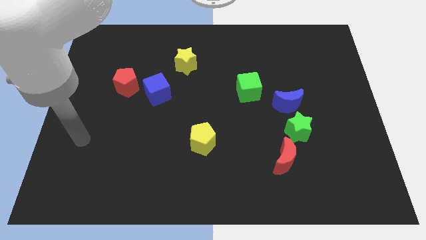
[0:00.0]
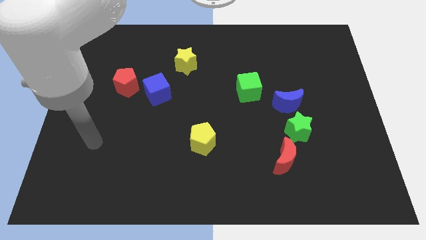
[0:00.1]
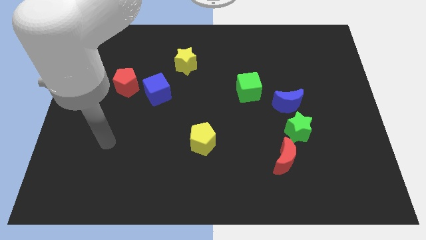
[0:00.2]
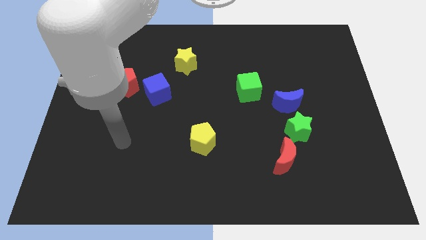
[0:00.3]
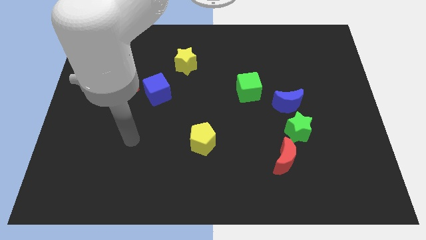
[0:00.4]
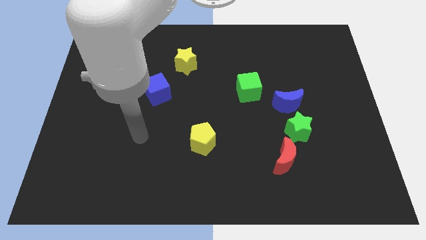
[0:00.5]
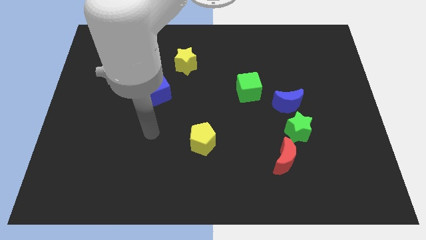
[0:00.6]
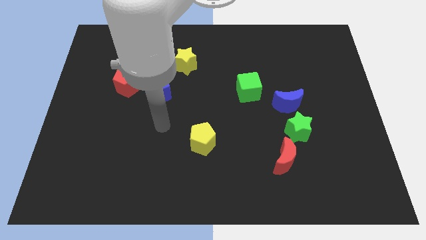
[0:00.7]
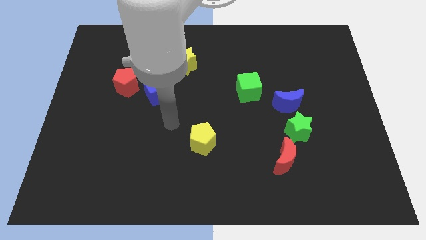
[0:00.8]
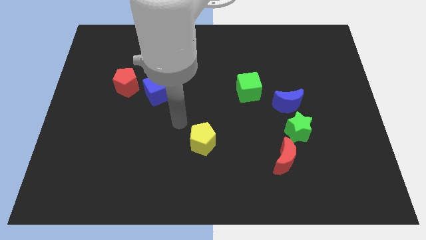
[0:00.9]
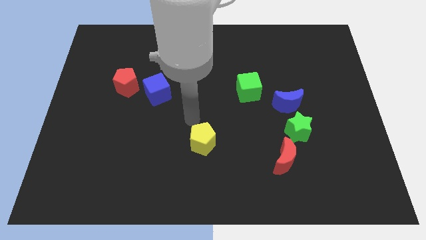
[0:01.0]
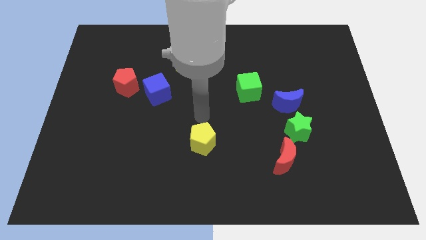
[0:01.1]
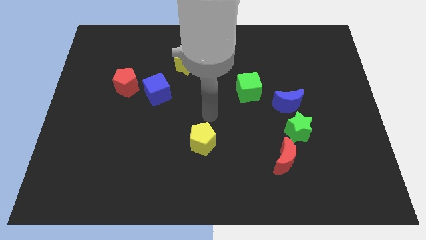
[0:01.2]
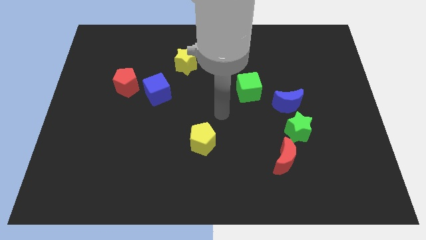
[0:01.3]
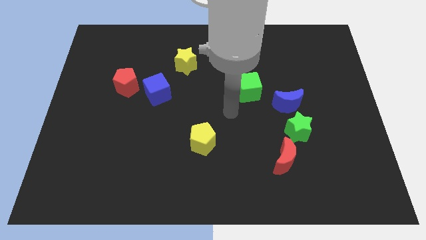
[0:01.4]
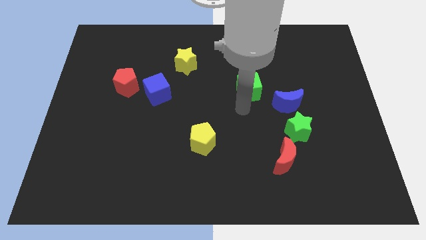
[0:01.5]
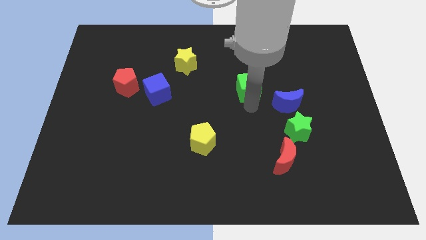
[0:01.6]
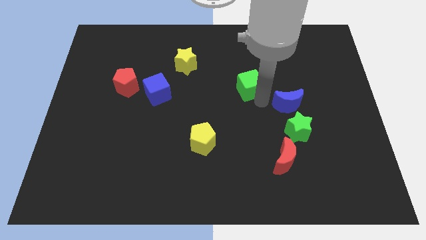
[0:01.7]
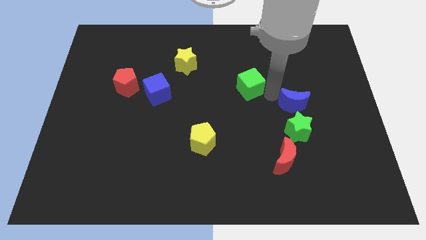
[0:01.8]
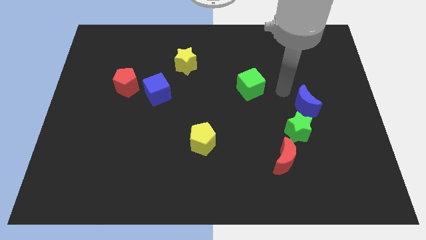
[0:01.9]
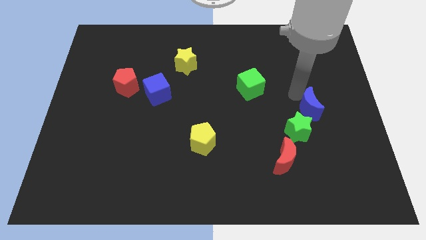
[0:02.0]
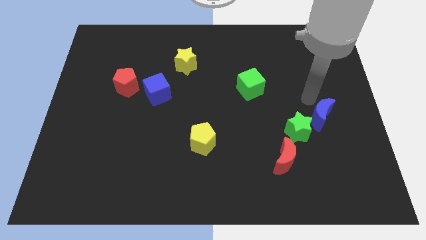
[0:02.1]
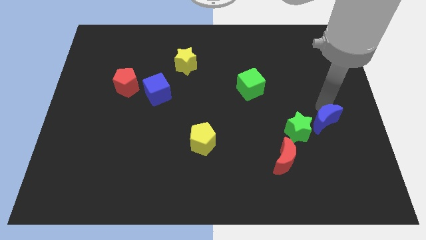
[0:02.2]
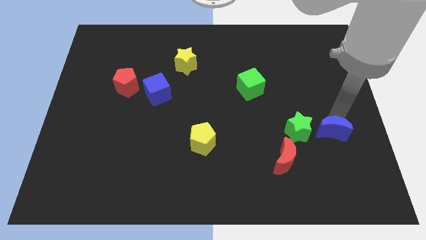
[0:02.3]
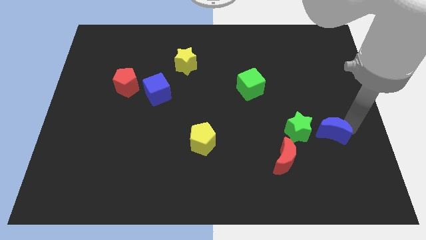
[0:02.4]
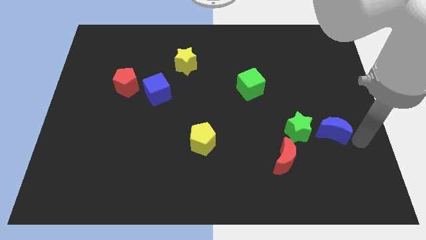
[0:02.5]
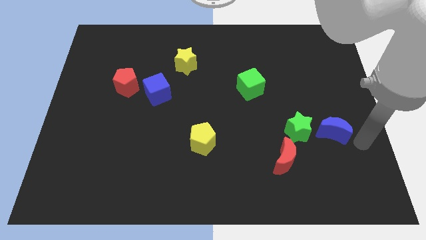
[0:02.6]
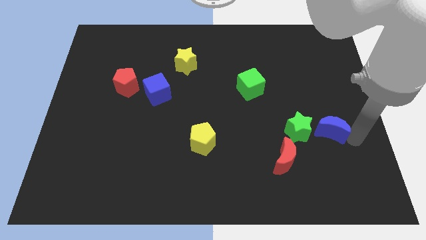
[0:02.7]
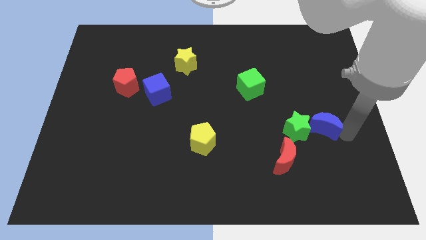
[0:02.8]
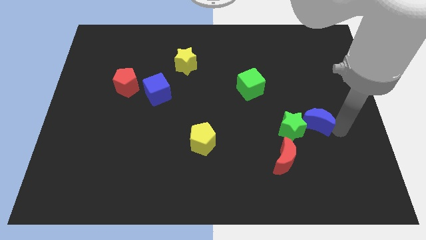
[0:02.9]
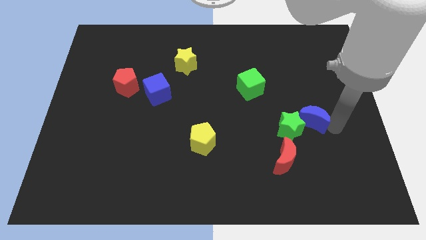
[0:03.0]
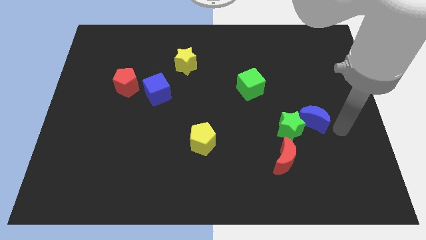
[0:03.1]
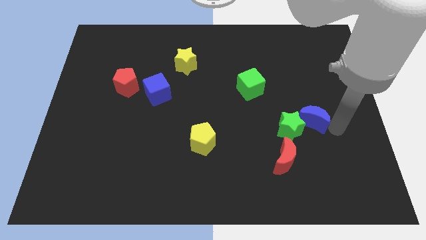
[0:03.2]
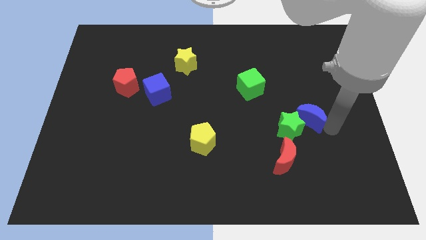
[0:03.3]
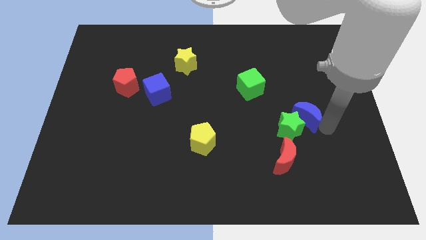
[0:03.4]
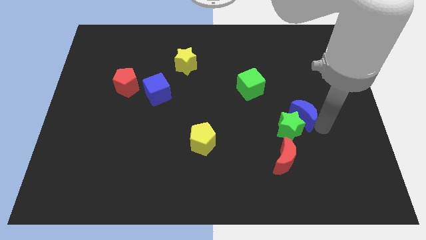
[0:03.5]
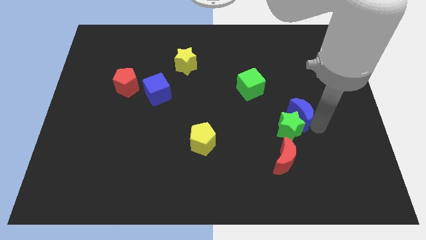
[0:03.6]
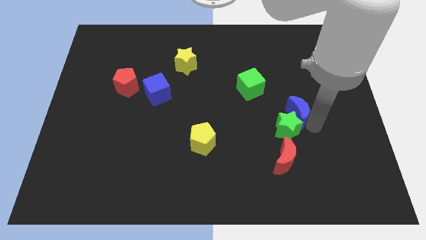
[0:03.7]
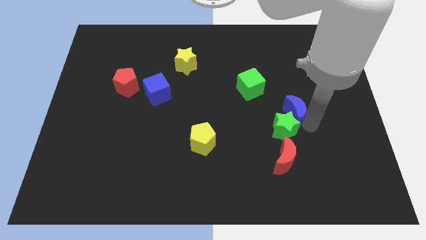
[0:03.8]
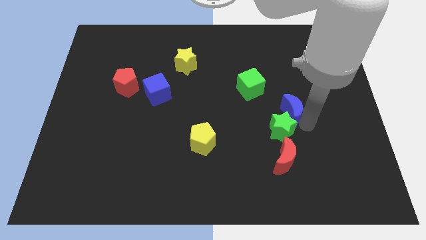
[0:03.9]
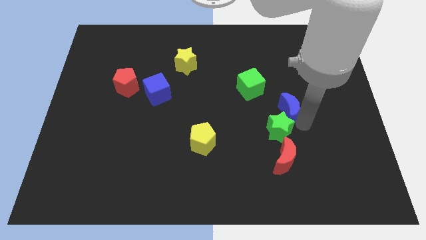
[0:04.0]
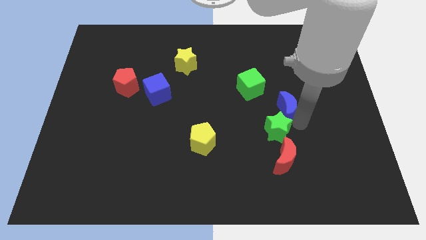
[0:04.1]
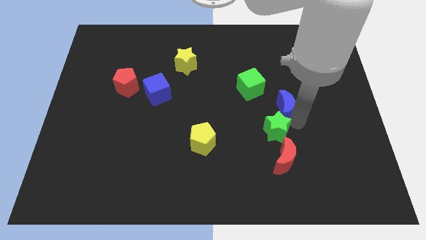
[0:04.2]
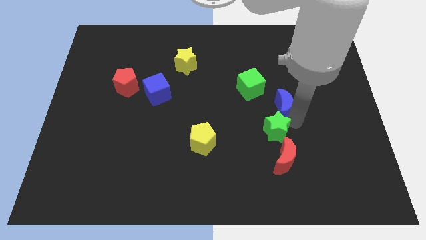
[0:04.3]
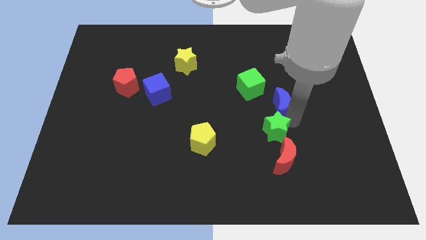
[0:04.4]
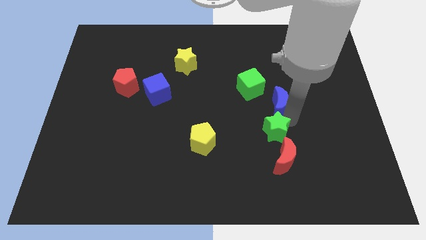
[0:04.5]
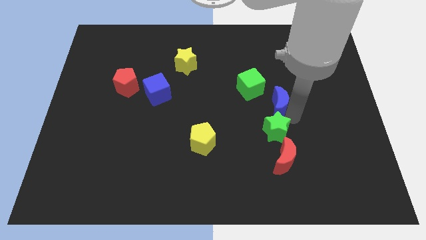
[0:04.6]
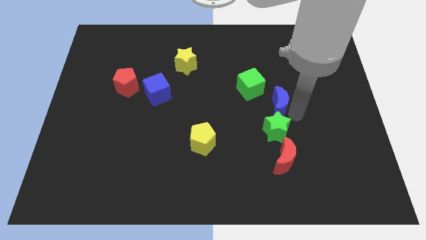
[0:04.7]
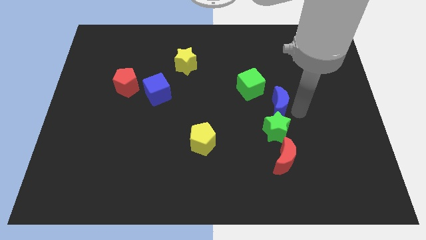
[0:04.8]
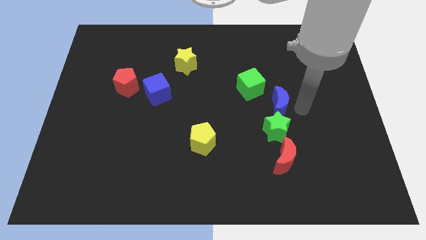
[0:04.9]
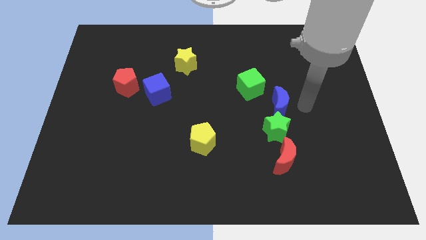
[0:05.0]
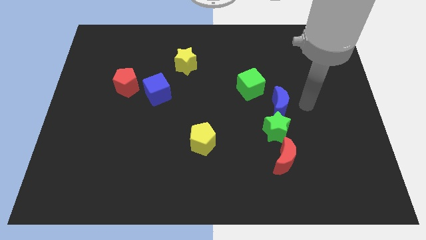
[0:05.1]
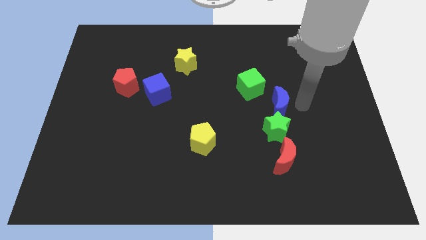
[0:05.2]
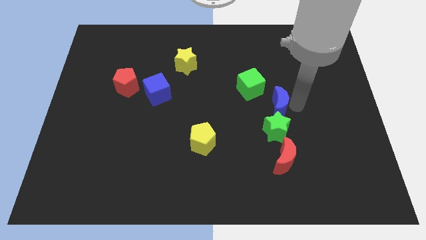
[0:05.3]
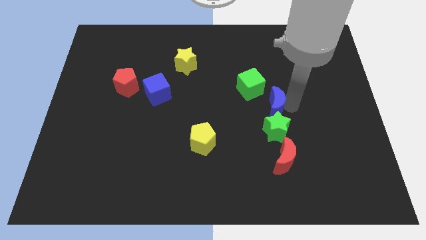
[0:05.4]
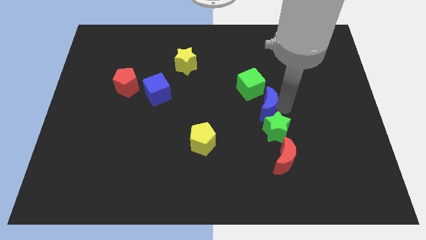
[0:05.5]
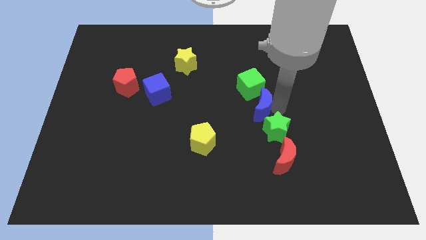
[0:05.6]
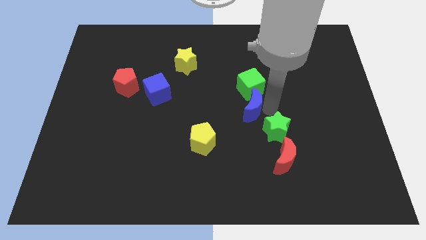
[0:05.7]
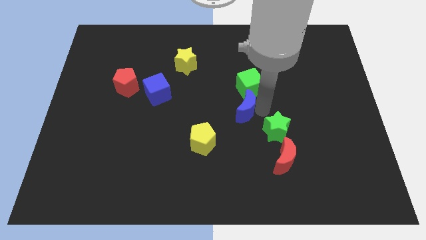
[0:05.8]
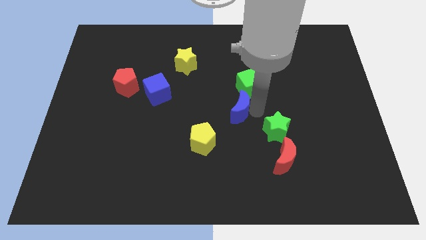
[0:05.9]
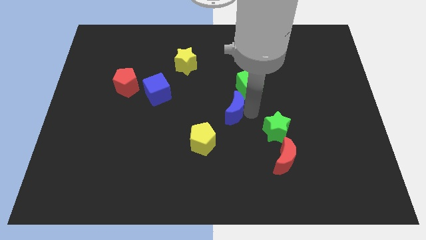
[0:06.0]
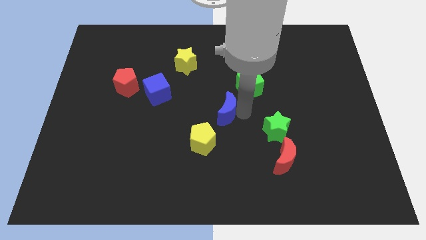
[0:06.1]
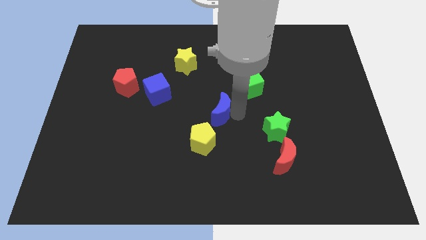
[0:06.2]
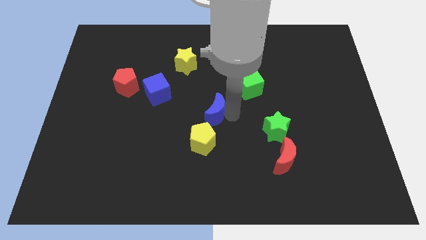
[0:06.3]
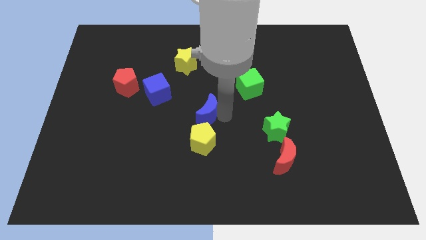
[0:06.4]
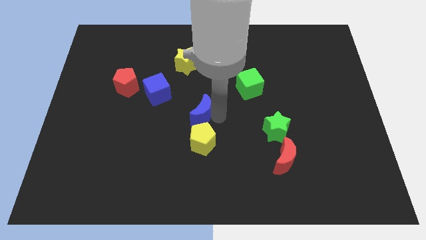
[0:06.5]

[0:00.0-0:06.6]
slide the blue moon left

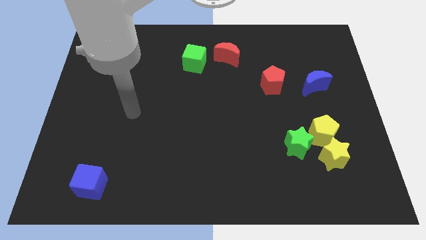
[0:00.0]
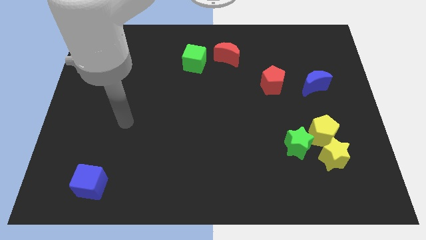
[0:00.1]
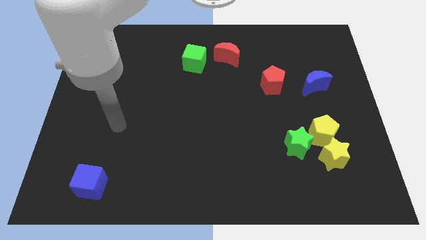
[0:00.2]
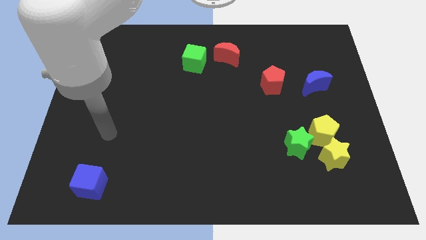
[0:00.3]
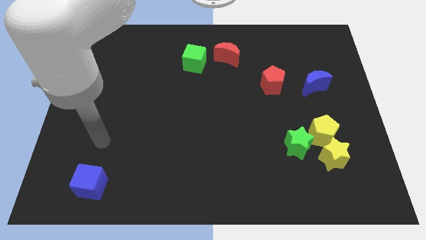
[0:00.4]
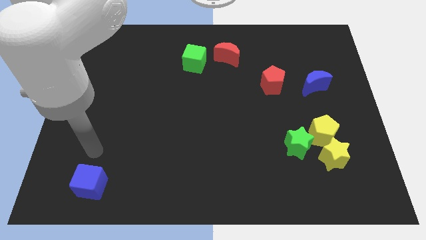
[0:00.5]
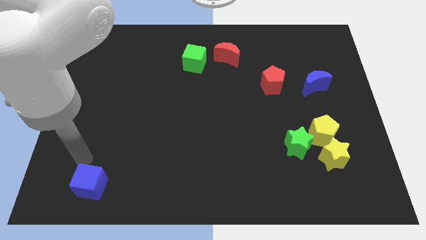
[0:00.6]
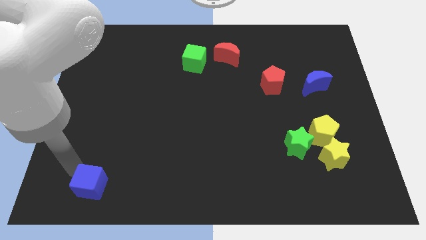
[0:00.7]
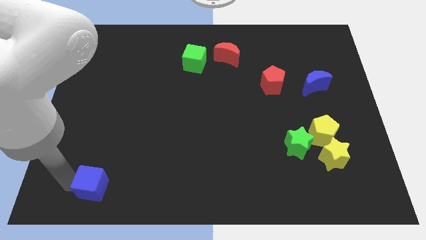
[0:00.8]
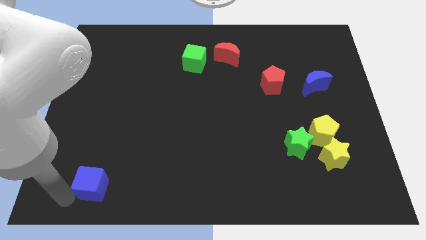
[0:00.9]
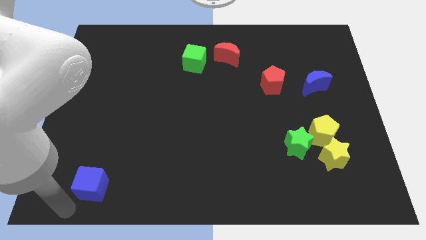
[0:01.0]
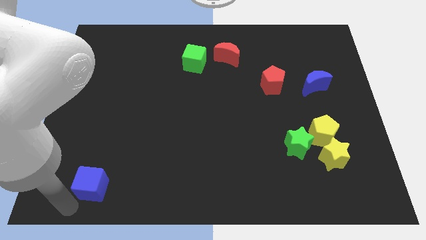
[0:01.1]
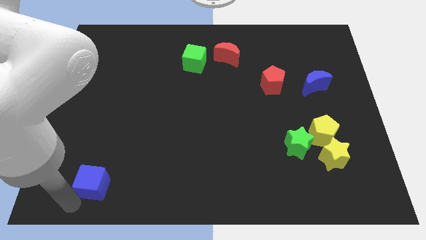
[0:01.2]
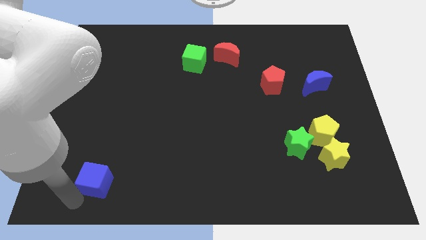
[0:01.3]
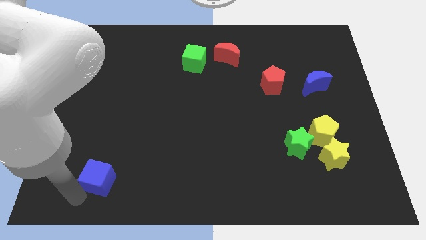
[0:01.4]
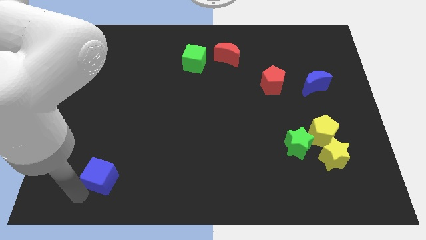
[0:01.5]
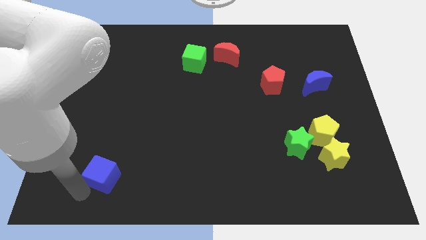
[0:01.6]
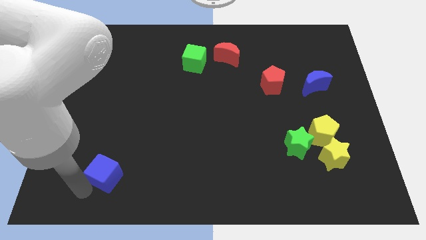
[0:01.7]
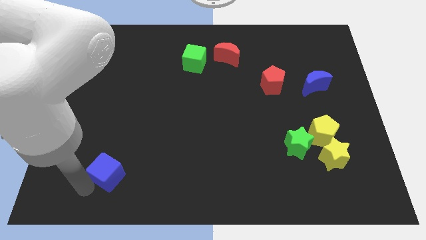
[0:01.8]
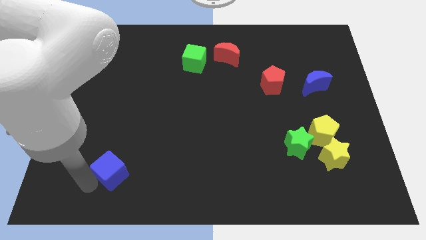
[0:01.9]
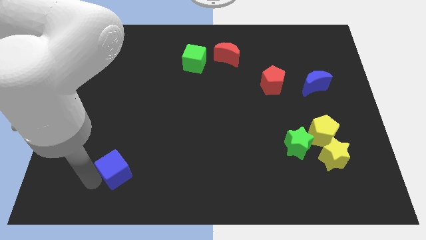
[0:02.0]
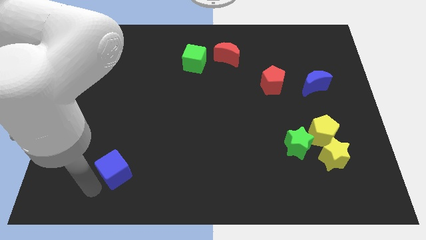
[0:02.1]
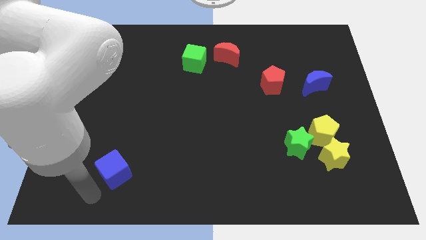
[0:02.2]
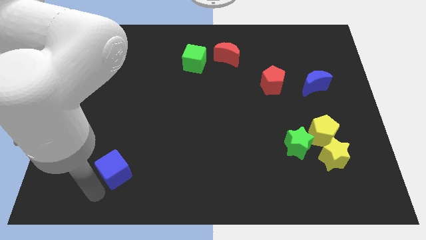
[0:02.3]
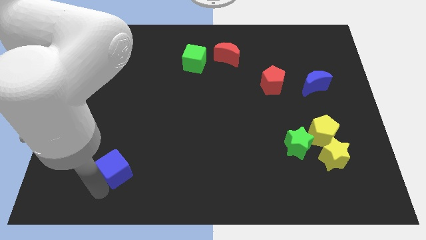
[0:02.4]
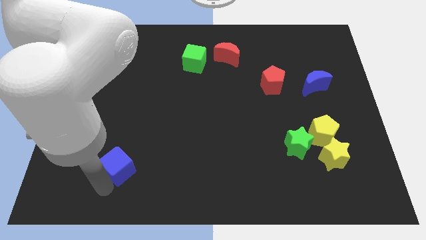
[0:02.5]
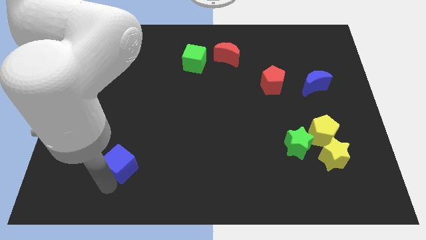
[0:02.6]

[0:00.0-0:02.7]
slightly slide the blue cube up and right diagonally
